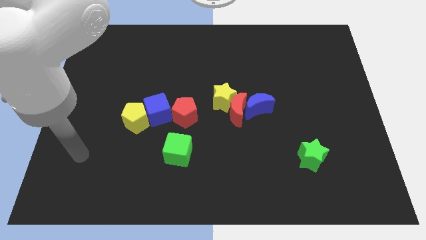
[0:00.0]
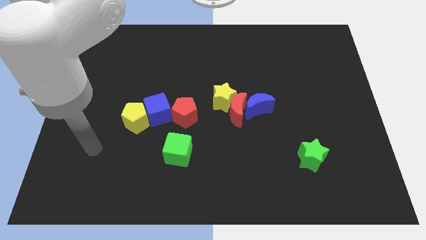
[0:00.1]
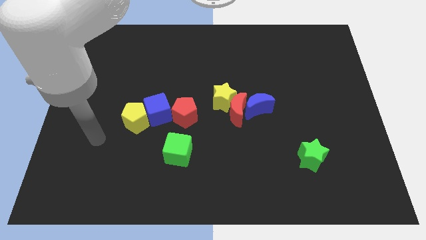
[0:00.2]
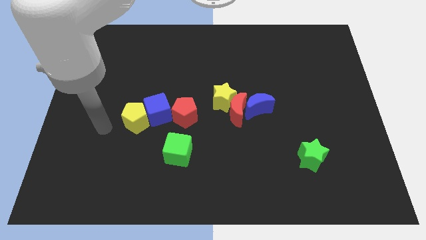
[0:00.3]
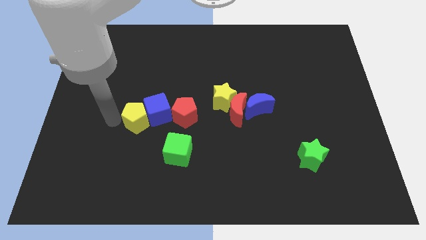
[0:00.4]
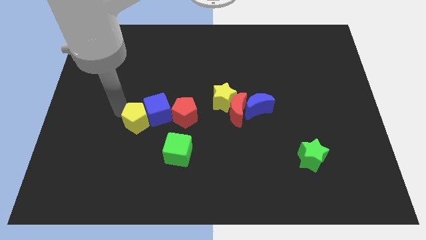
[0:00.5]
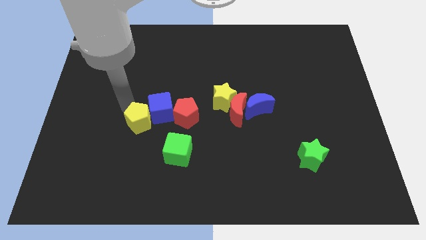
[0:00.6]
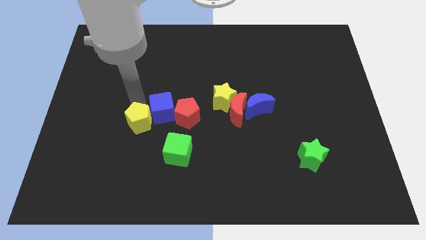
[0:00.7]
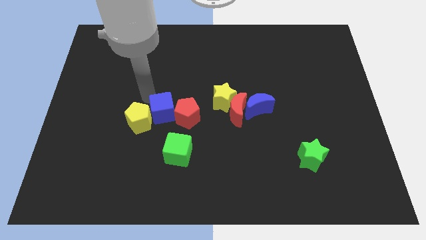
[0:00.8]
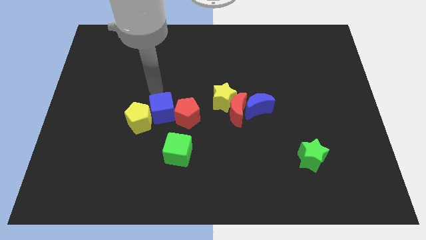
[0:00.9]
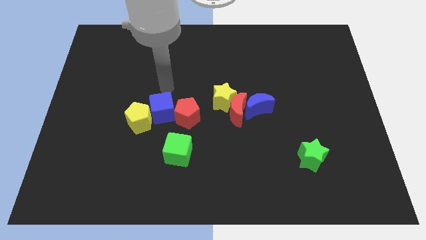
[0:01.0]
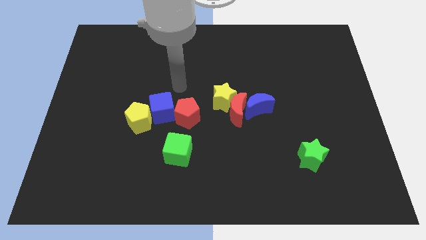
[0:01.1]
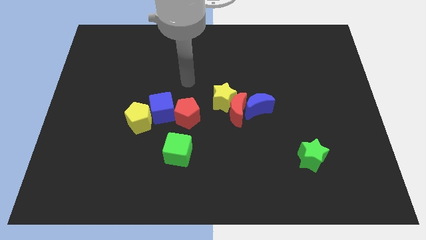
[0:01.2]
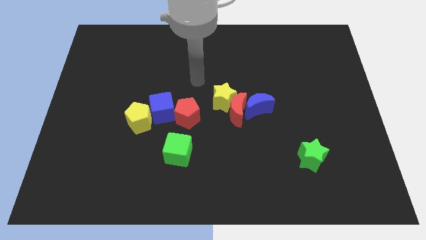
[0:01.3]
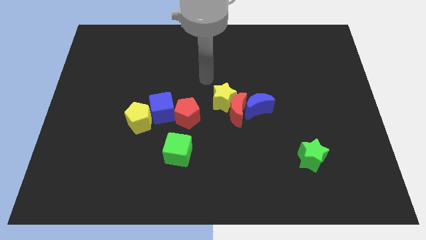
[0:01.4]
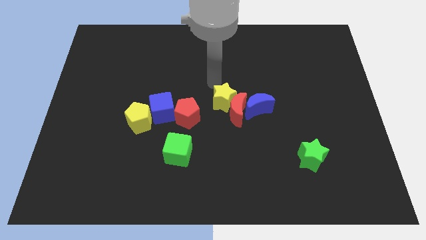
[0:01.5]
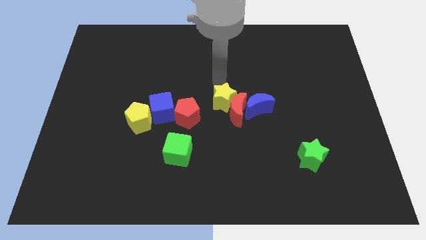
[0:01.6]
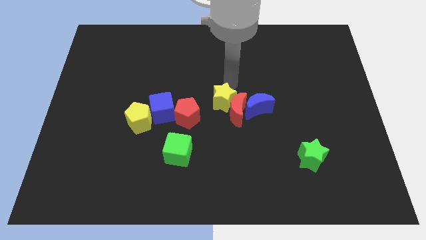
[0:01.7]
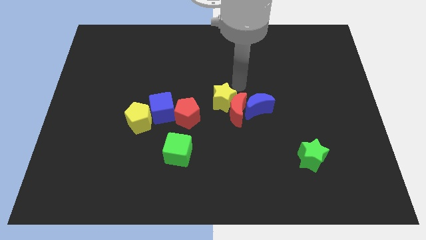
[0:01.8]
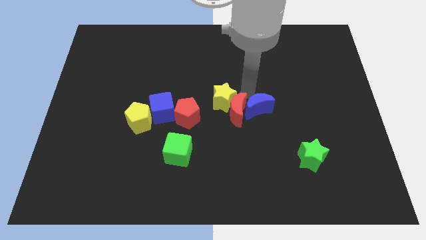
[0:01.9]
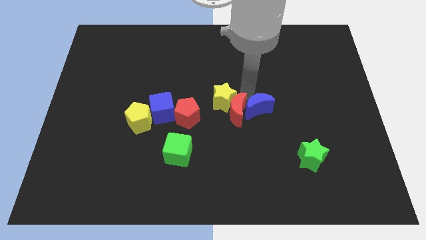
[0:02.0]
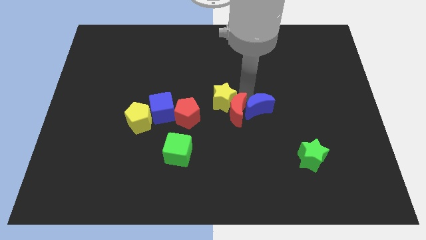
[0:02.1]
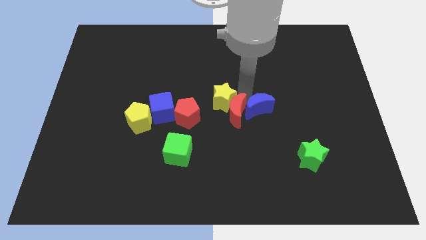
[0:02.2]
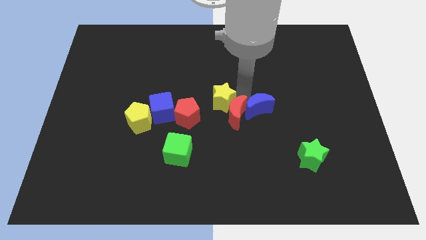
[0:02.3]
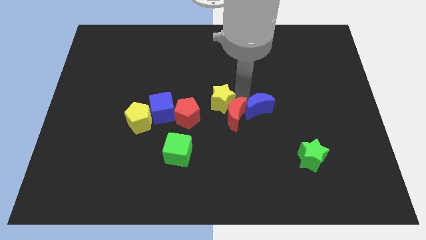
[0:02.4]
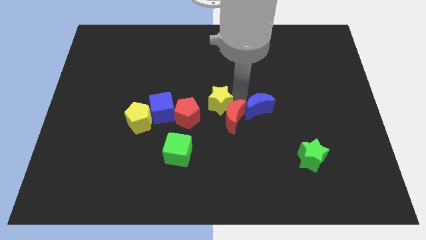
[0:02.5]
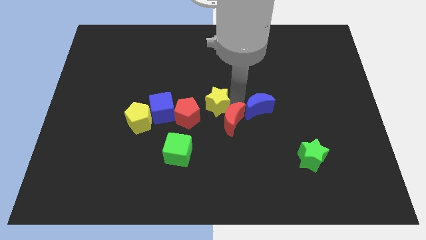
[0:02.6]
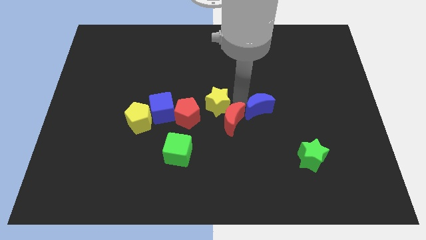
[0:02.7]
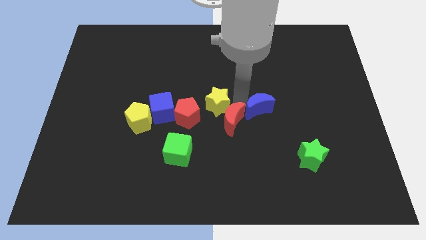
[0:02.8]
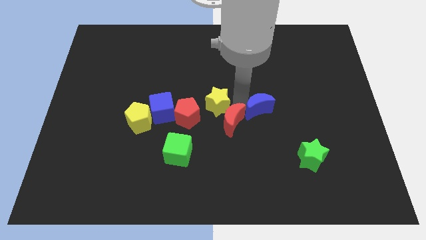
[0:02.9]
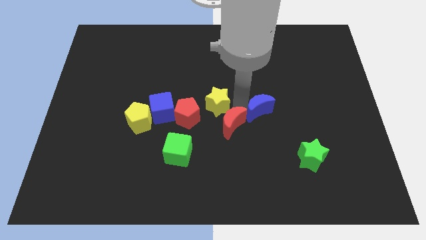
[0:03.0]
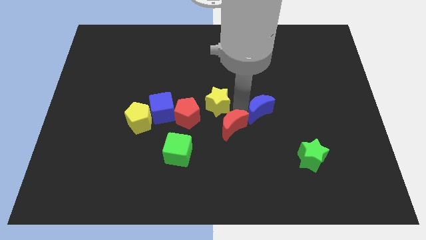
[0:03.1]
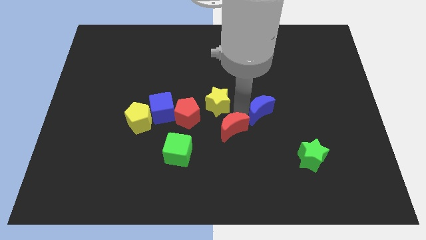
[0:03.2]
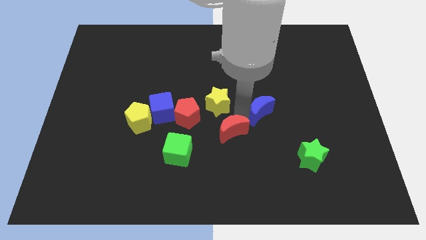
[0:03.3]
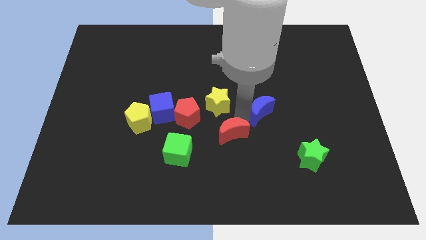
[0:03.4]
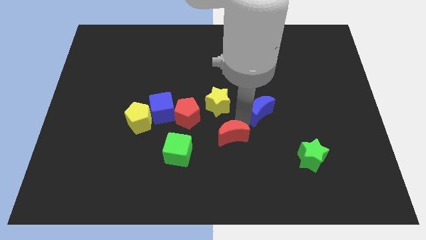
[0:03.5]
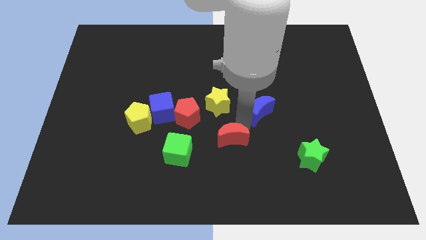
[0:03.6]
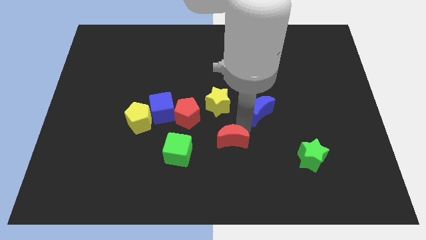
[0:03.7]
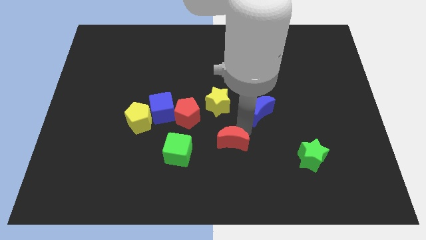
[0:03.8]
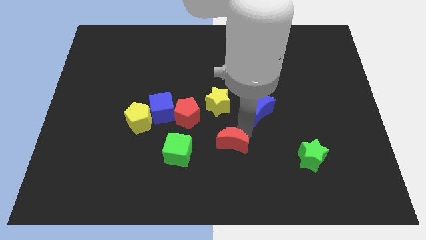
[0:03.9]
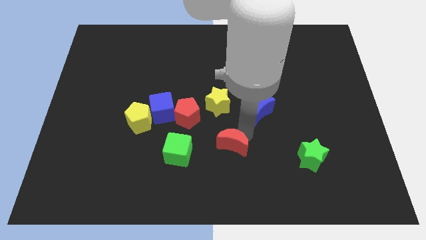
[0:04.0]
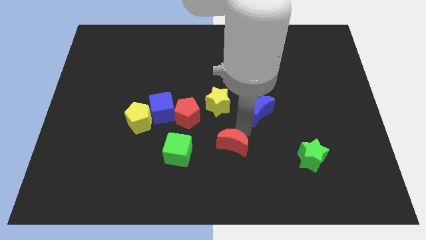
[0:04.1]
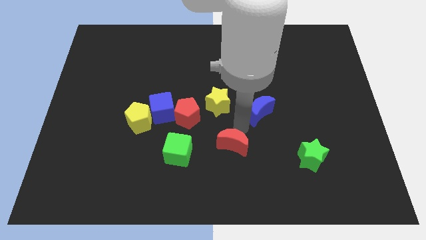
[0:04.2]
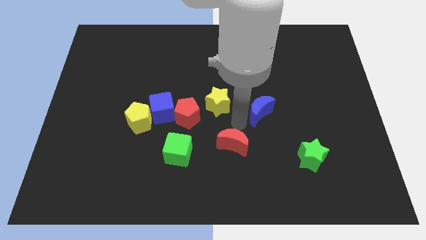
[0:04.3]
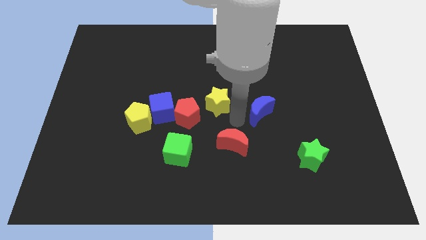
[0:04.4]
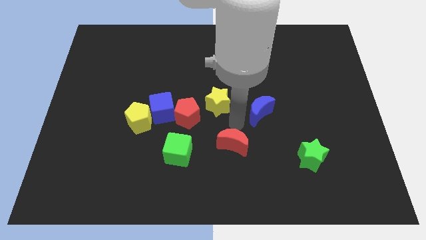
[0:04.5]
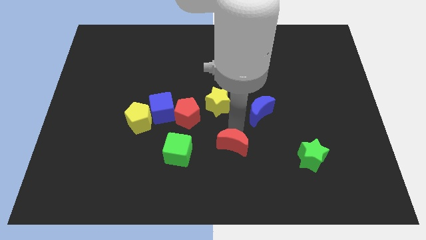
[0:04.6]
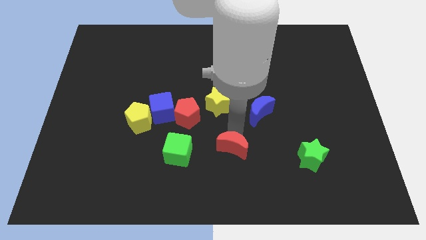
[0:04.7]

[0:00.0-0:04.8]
pull the red moon apart from the yellow star and blue moon

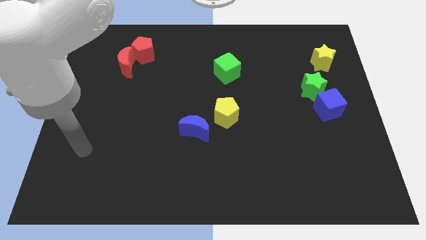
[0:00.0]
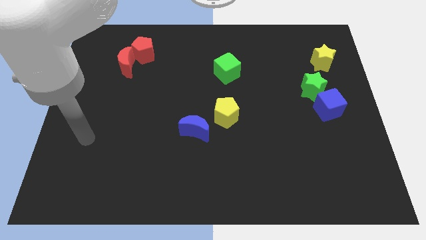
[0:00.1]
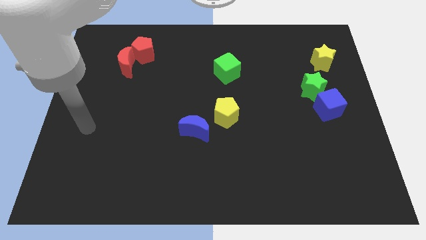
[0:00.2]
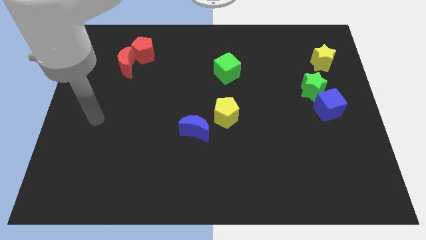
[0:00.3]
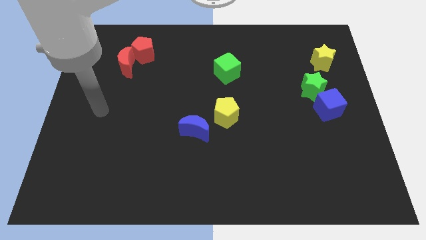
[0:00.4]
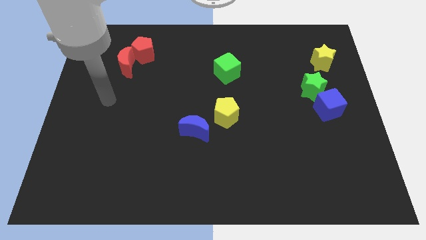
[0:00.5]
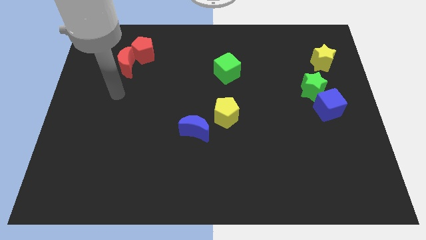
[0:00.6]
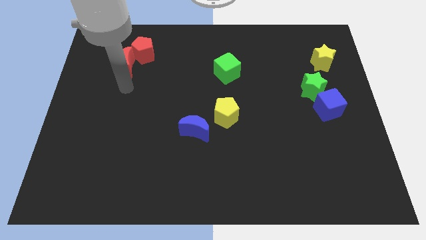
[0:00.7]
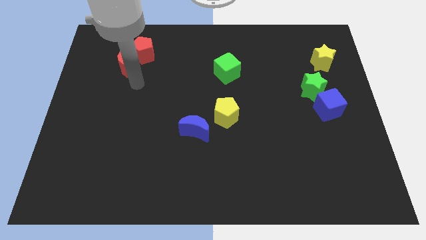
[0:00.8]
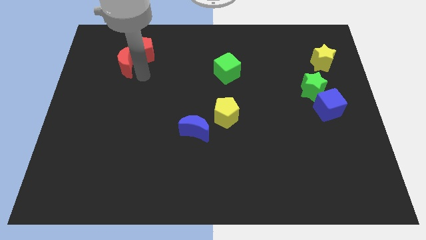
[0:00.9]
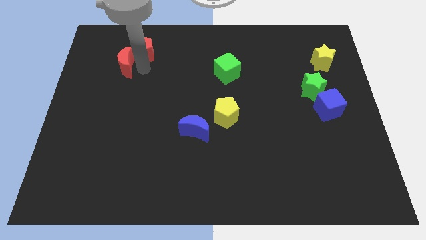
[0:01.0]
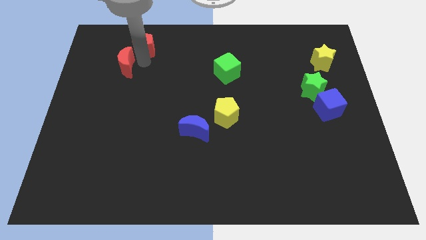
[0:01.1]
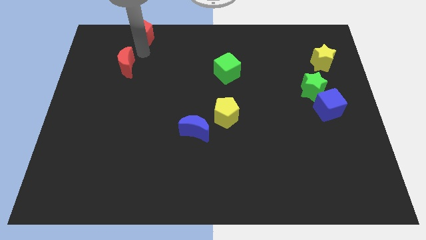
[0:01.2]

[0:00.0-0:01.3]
pull the red moon apart from the red pentagon

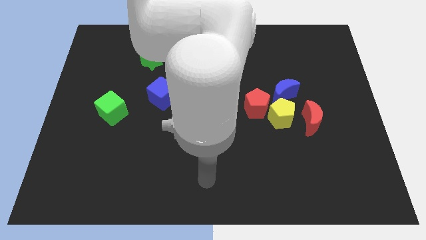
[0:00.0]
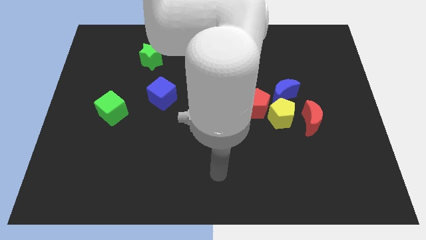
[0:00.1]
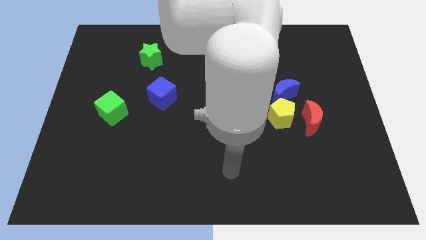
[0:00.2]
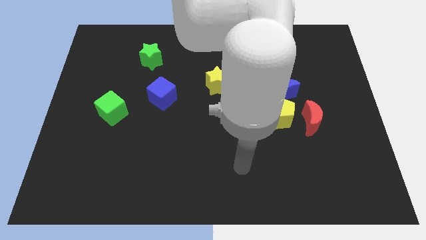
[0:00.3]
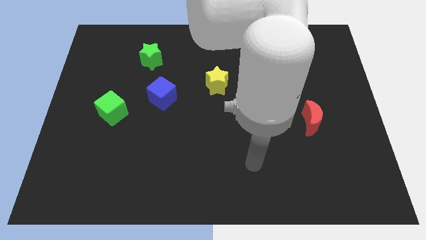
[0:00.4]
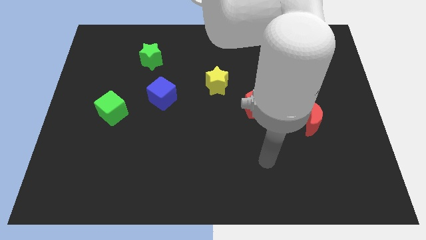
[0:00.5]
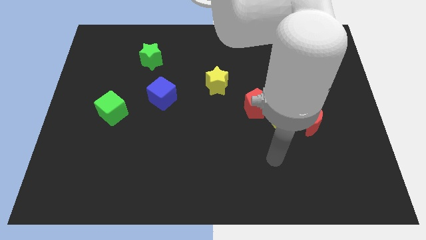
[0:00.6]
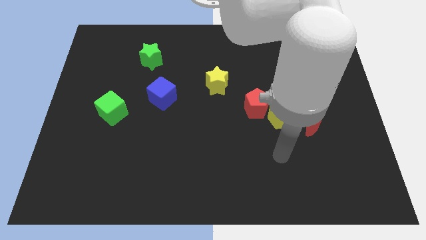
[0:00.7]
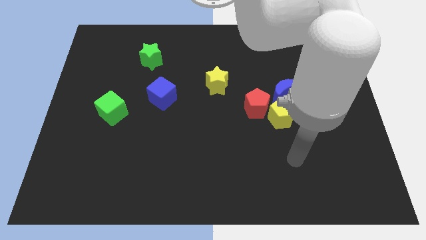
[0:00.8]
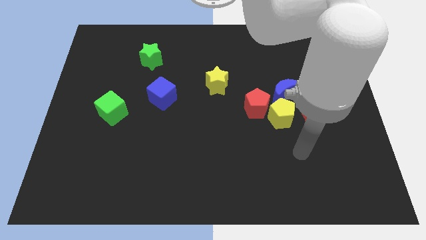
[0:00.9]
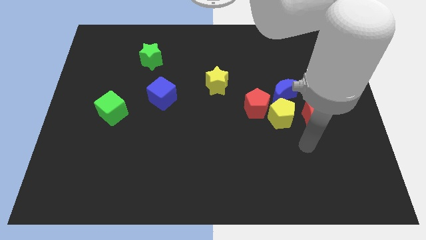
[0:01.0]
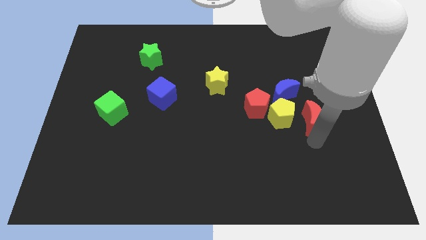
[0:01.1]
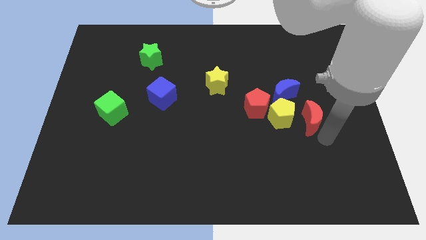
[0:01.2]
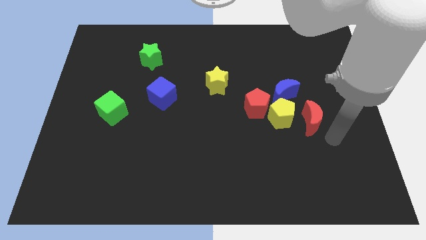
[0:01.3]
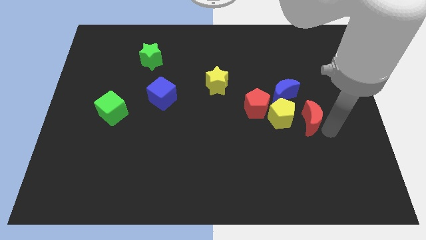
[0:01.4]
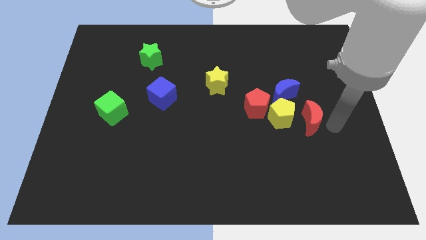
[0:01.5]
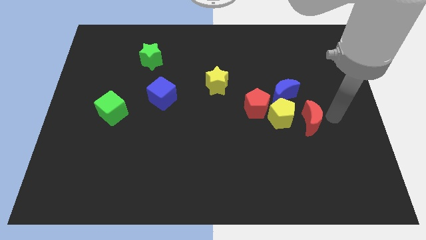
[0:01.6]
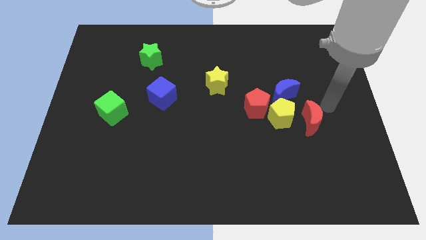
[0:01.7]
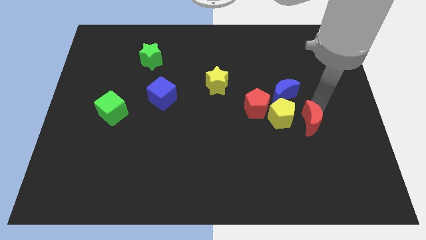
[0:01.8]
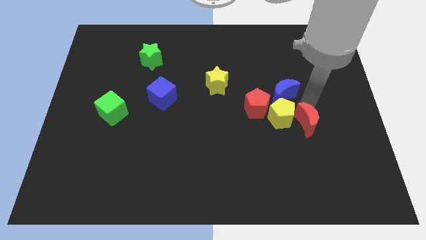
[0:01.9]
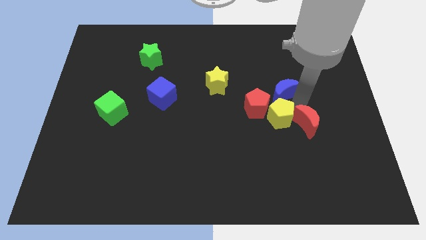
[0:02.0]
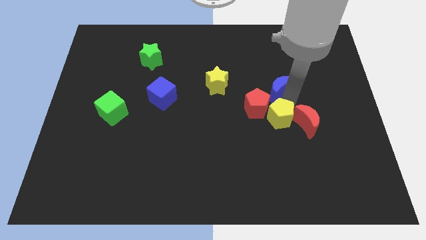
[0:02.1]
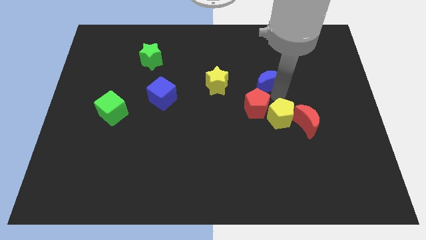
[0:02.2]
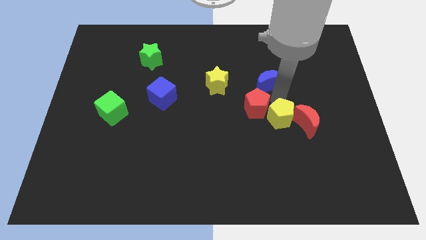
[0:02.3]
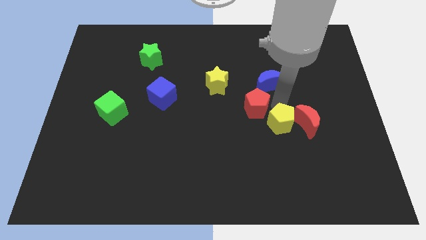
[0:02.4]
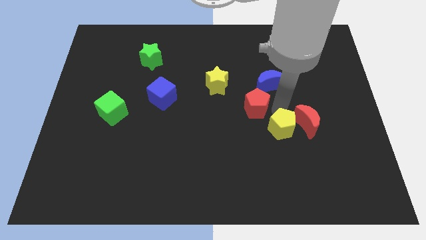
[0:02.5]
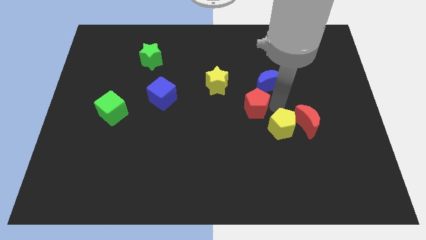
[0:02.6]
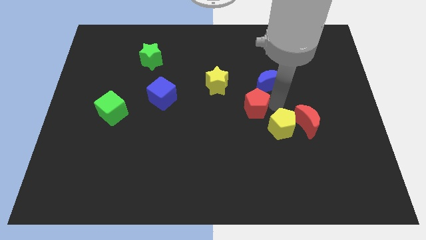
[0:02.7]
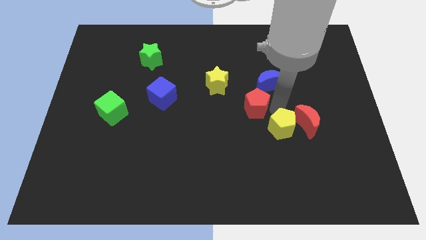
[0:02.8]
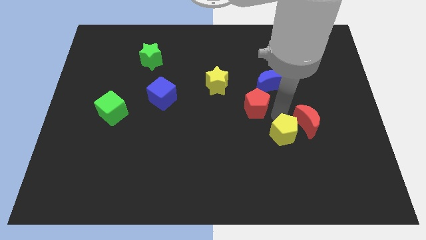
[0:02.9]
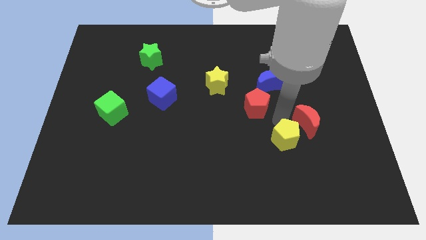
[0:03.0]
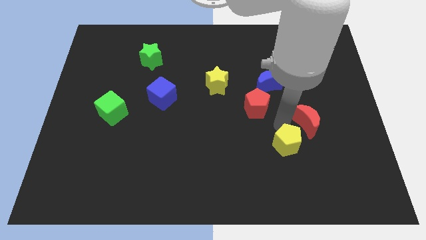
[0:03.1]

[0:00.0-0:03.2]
separate the yellow pentagon from the group of blocks
